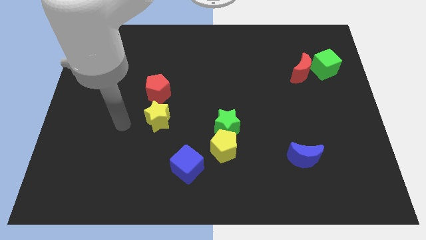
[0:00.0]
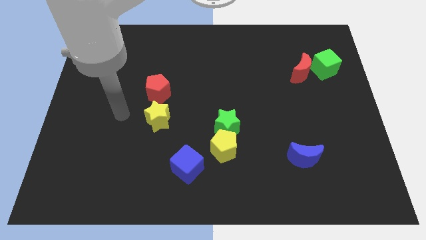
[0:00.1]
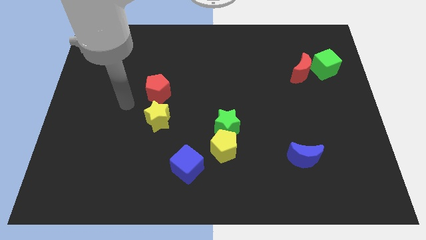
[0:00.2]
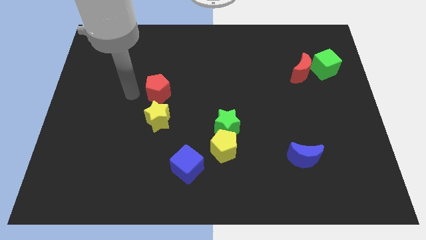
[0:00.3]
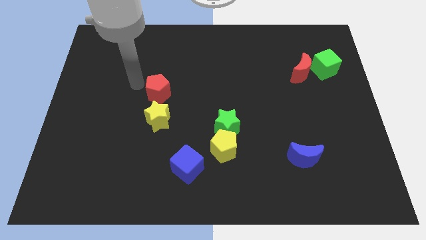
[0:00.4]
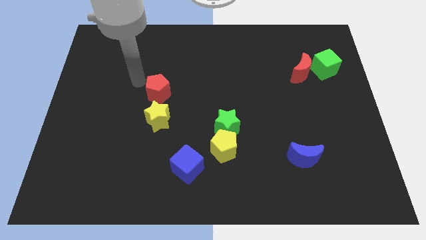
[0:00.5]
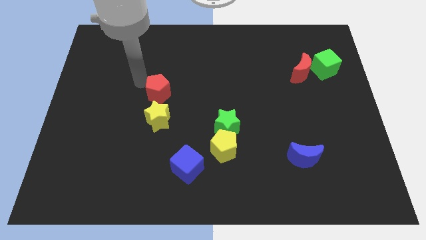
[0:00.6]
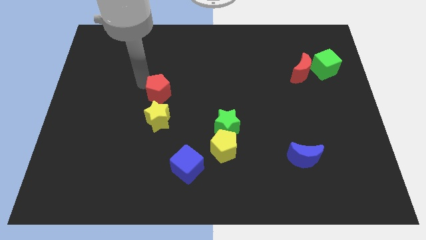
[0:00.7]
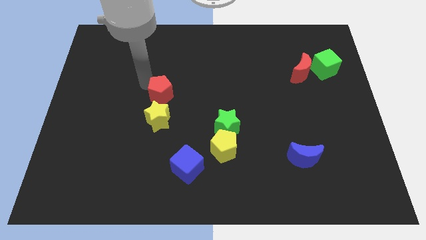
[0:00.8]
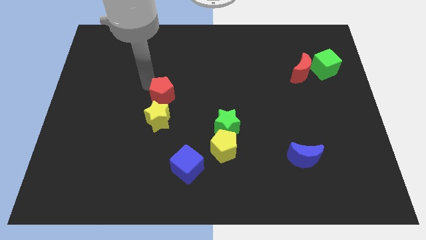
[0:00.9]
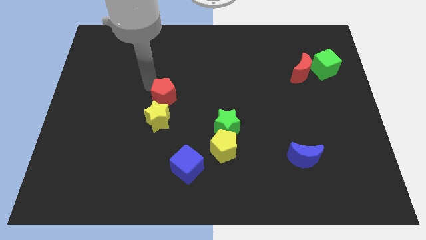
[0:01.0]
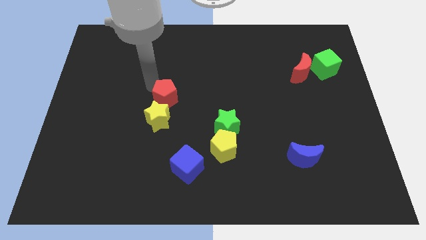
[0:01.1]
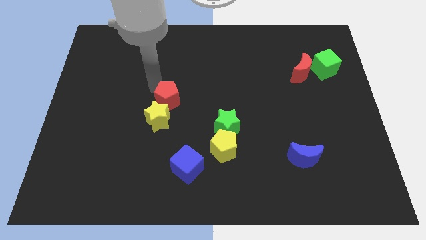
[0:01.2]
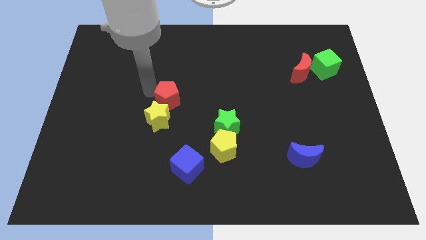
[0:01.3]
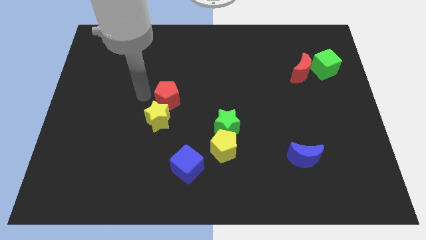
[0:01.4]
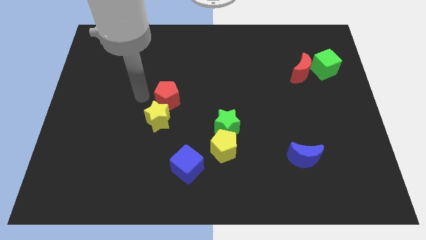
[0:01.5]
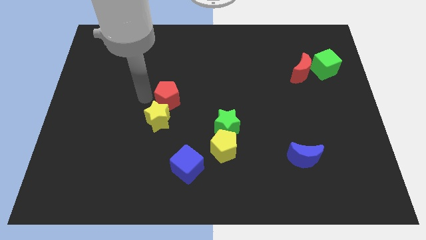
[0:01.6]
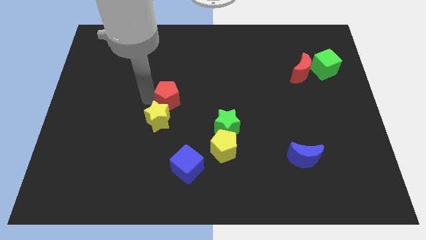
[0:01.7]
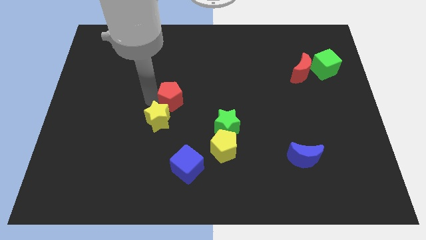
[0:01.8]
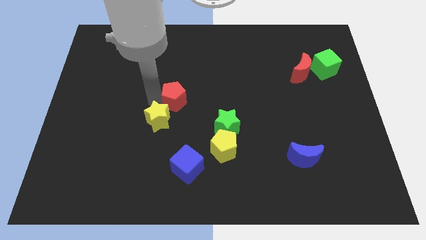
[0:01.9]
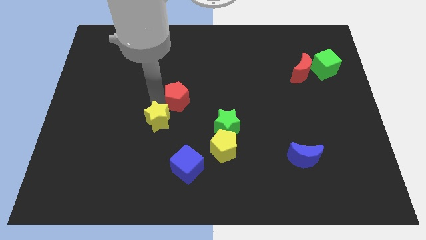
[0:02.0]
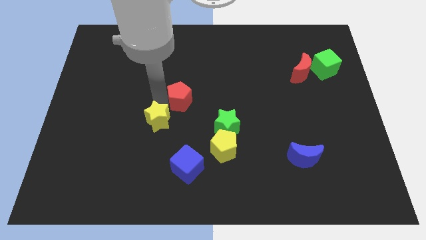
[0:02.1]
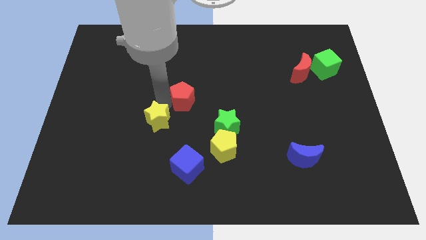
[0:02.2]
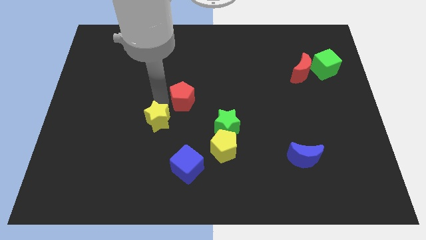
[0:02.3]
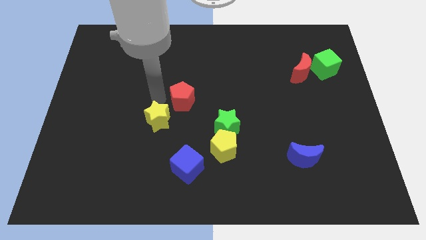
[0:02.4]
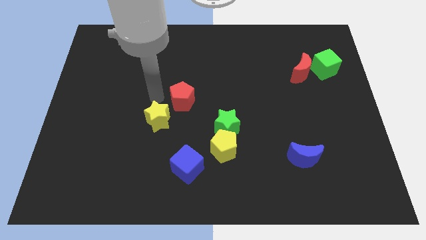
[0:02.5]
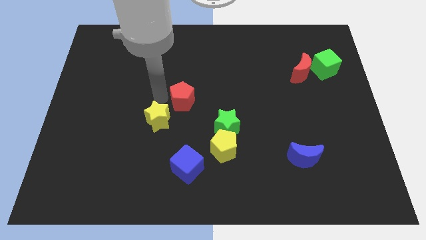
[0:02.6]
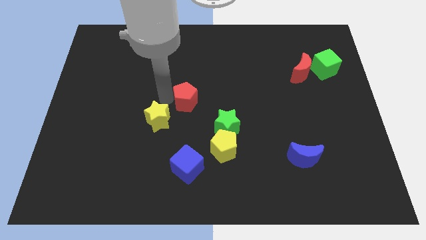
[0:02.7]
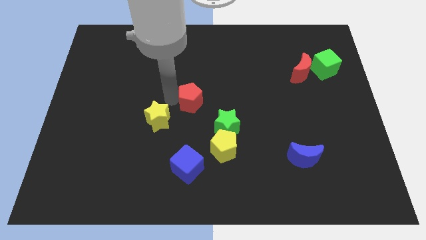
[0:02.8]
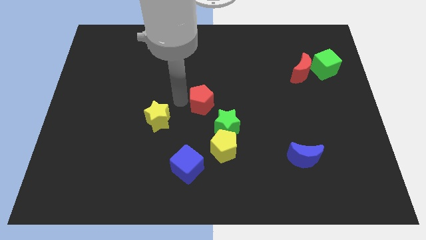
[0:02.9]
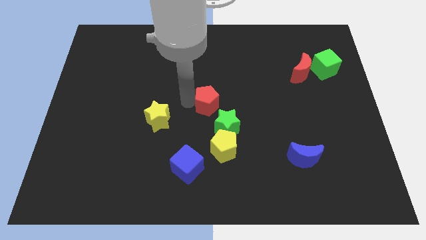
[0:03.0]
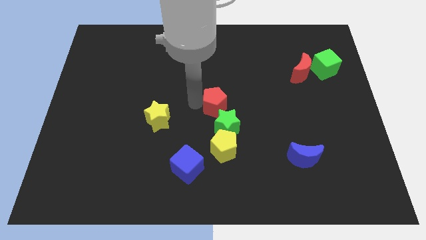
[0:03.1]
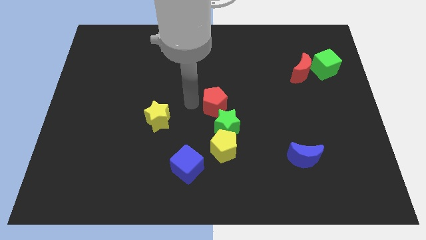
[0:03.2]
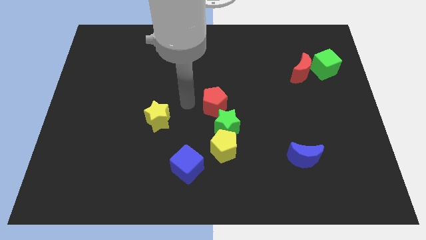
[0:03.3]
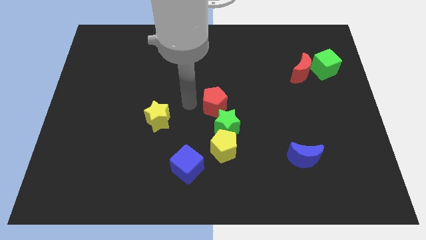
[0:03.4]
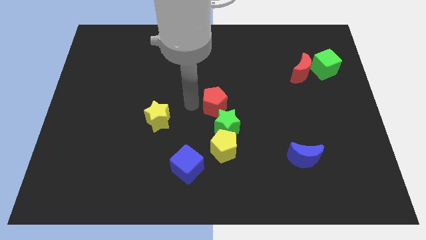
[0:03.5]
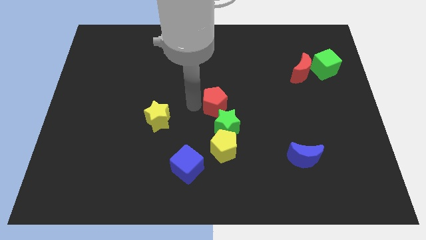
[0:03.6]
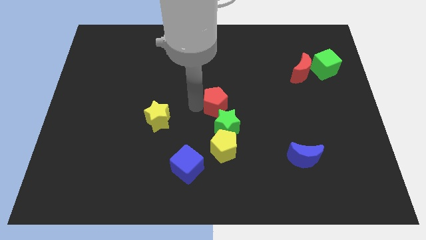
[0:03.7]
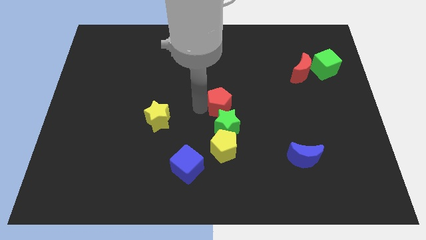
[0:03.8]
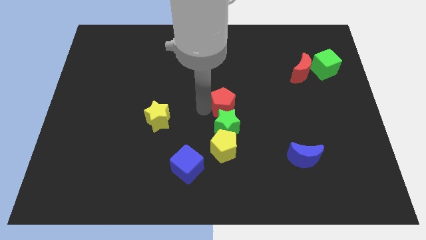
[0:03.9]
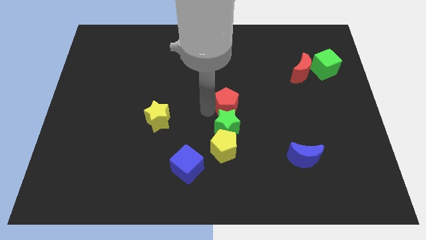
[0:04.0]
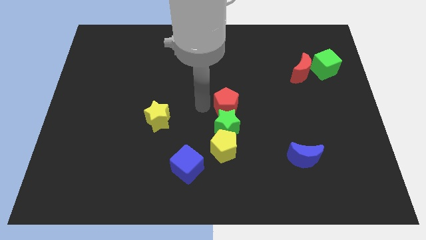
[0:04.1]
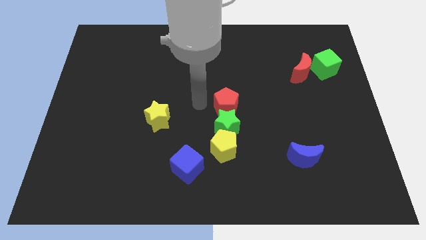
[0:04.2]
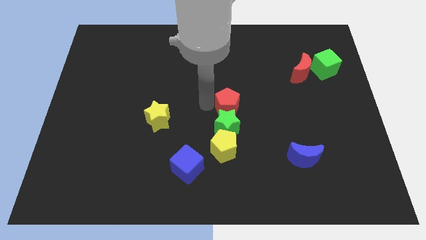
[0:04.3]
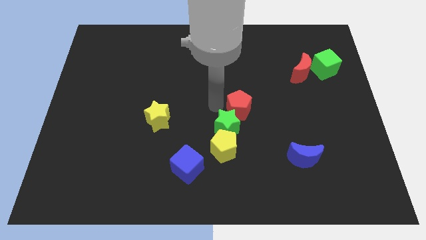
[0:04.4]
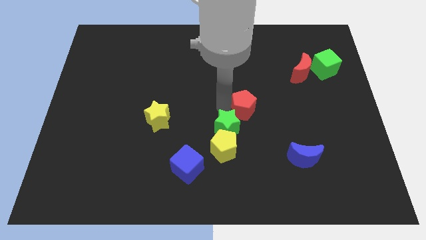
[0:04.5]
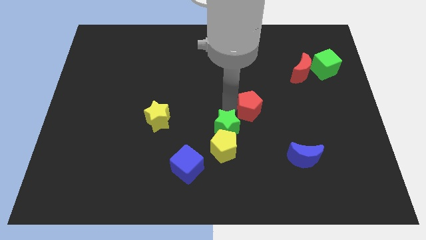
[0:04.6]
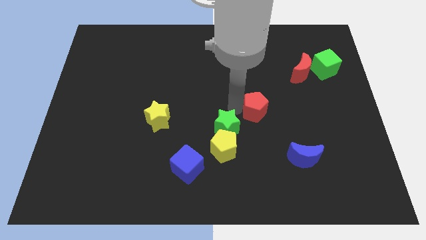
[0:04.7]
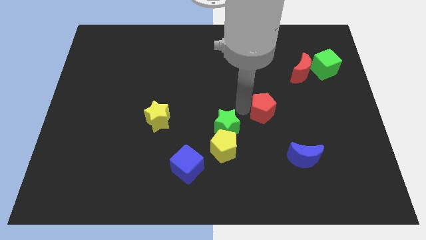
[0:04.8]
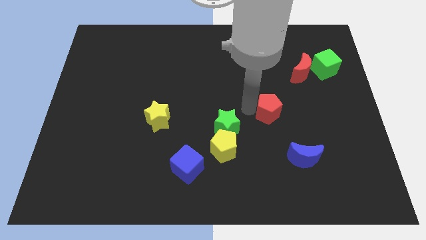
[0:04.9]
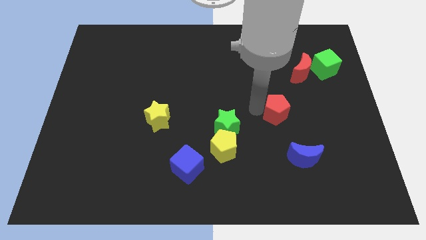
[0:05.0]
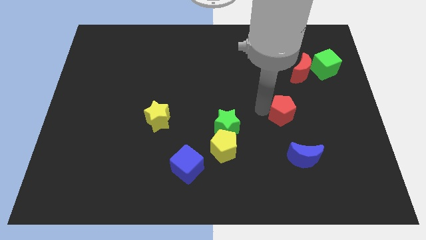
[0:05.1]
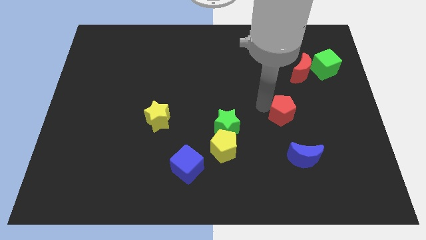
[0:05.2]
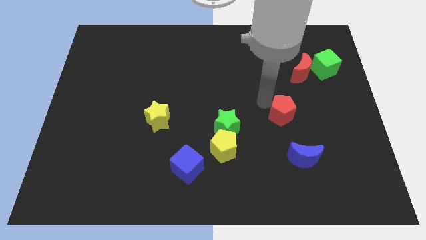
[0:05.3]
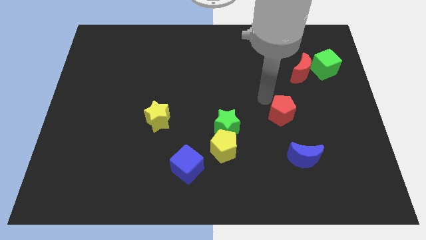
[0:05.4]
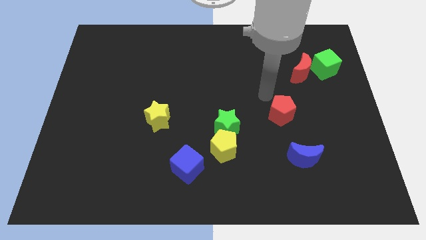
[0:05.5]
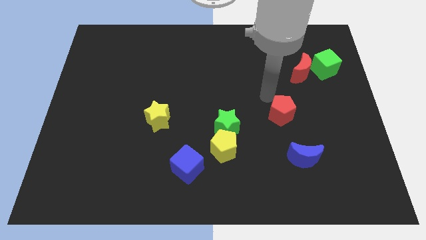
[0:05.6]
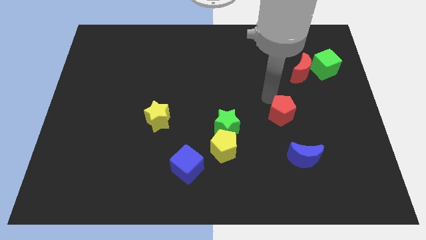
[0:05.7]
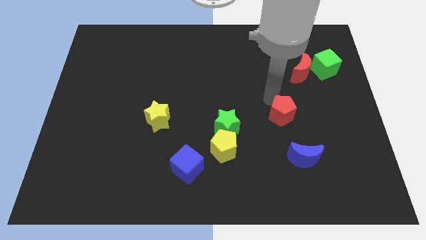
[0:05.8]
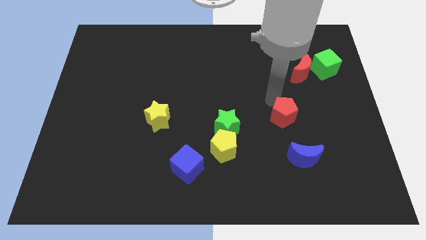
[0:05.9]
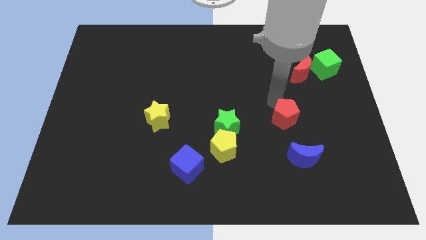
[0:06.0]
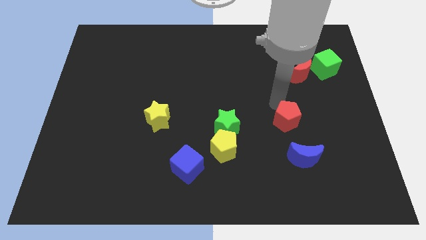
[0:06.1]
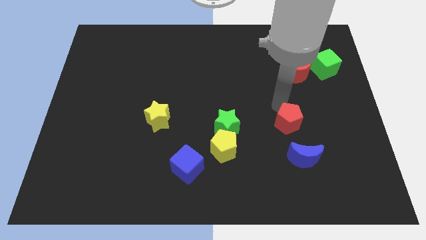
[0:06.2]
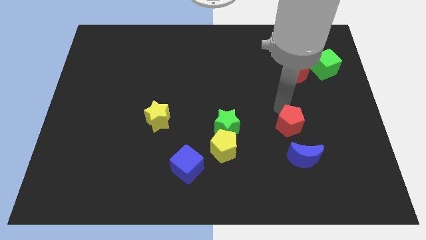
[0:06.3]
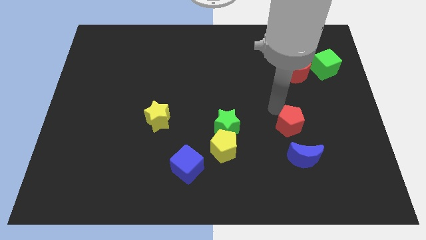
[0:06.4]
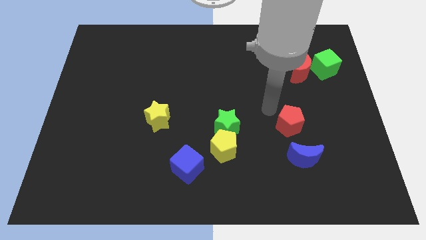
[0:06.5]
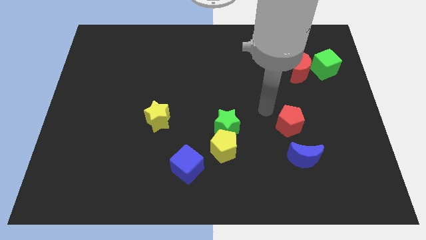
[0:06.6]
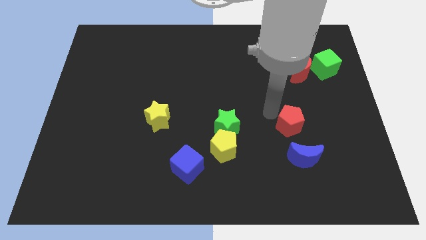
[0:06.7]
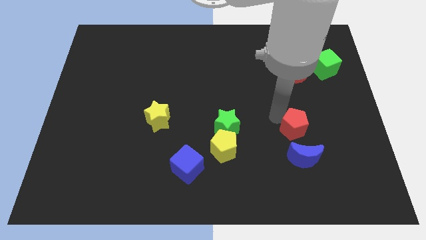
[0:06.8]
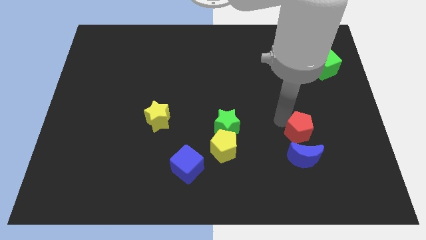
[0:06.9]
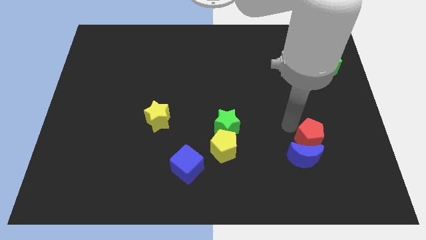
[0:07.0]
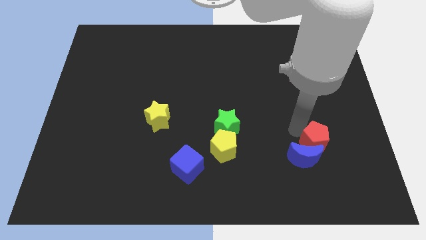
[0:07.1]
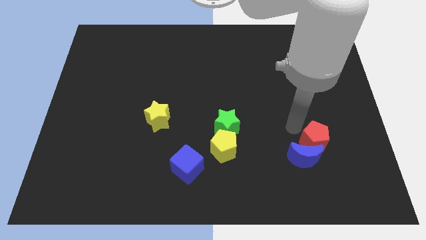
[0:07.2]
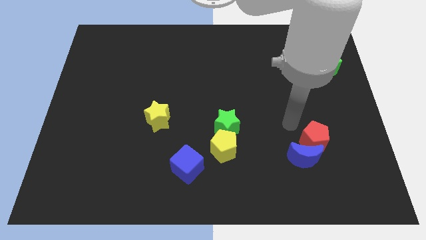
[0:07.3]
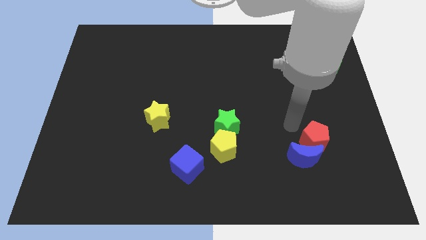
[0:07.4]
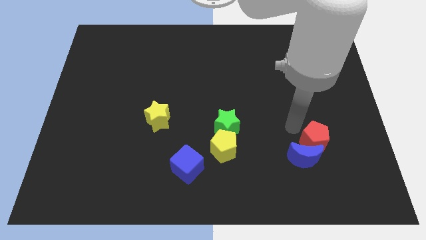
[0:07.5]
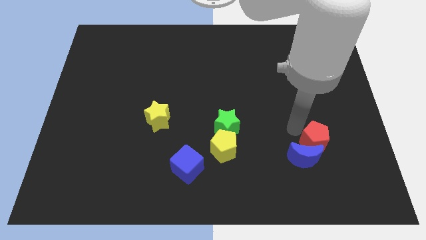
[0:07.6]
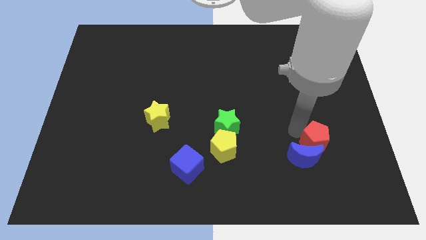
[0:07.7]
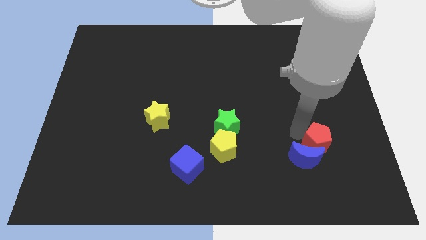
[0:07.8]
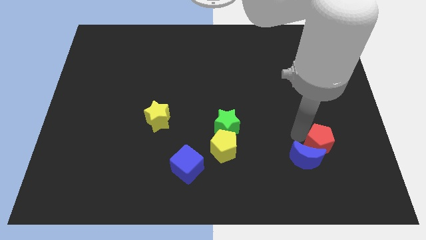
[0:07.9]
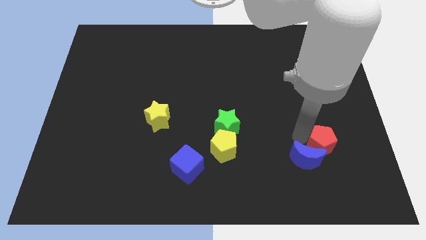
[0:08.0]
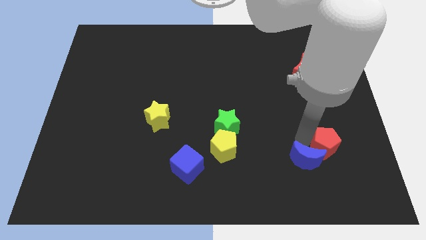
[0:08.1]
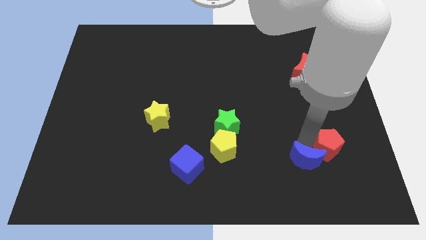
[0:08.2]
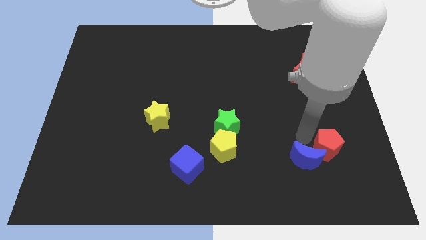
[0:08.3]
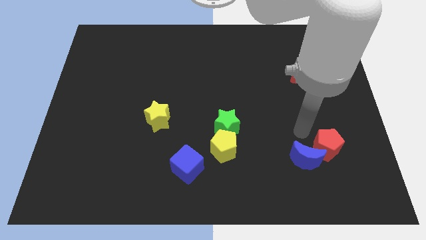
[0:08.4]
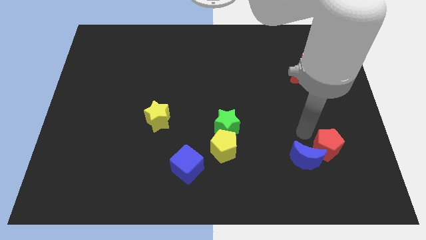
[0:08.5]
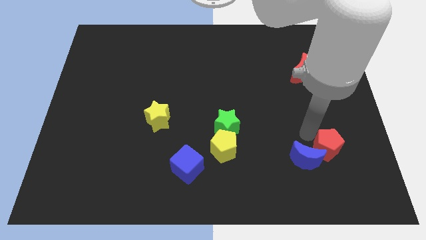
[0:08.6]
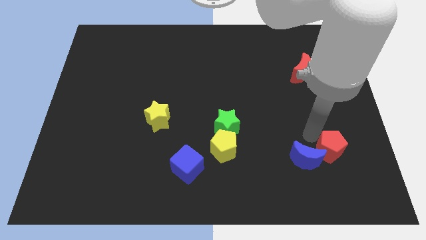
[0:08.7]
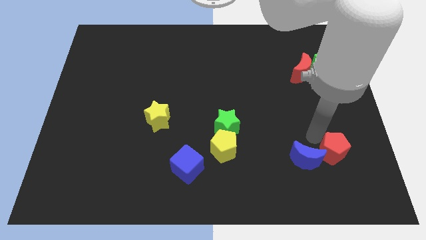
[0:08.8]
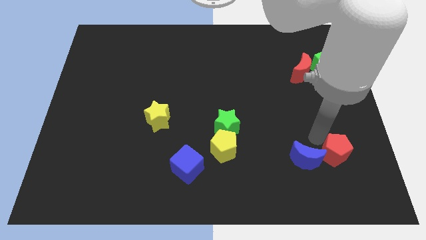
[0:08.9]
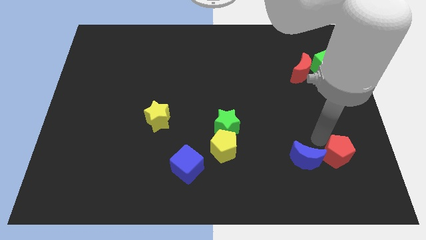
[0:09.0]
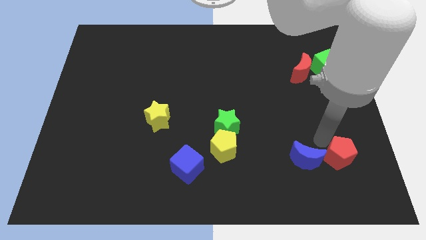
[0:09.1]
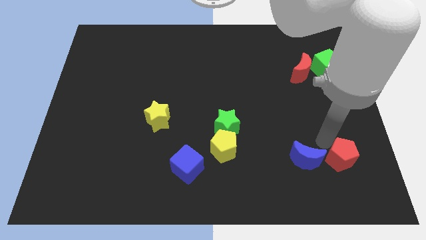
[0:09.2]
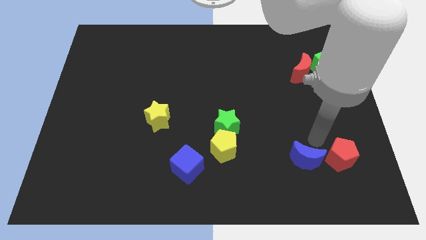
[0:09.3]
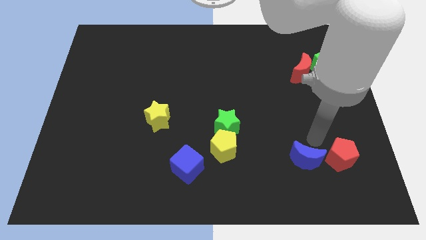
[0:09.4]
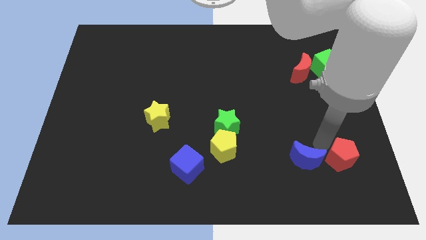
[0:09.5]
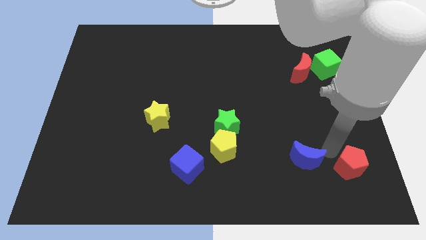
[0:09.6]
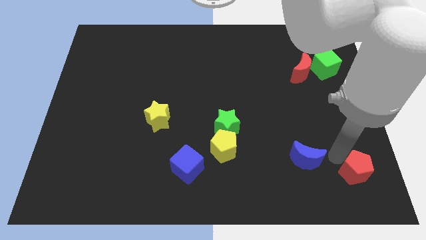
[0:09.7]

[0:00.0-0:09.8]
move the red pentagon to the bottom right corner
